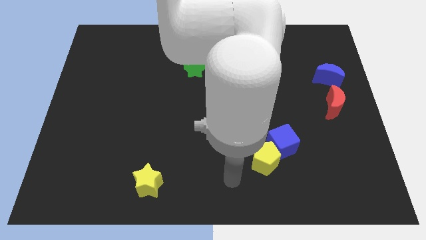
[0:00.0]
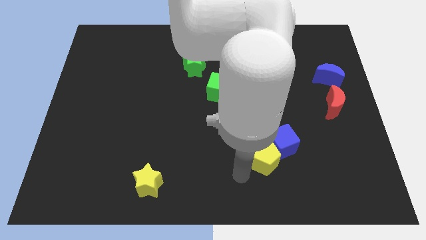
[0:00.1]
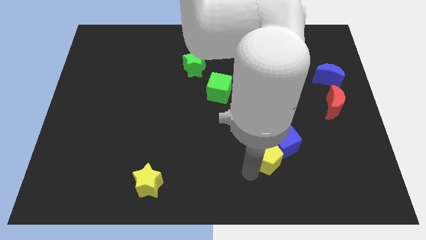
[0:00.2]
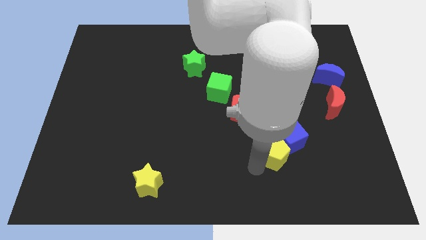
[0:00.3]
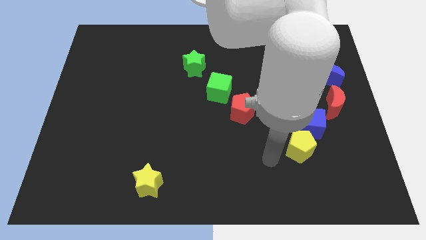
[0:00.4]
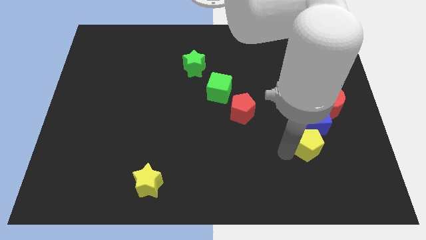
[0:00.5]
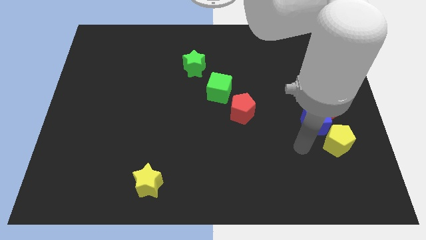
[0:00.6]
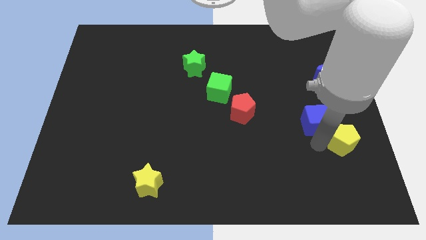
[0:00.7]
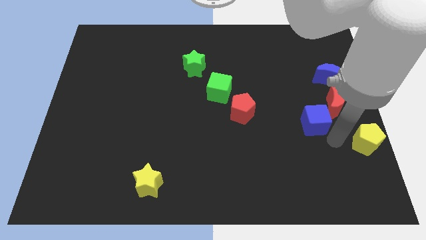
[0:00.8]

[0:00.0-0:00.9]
pull the blue cube apart from the yellow pentagon

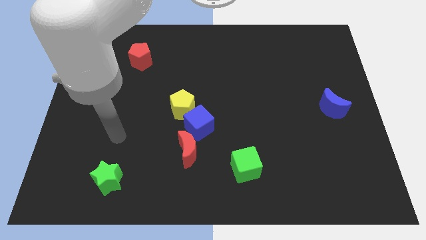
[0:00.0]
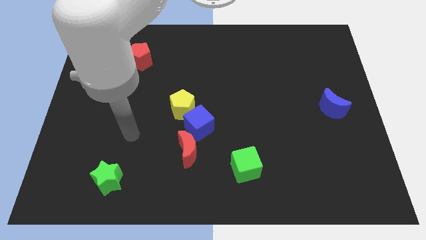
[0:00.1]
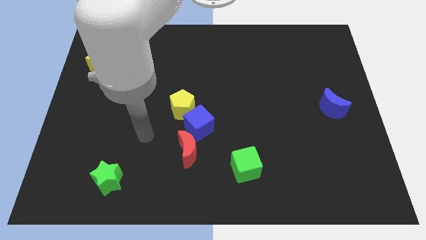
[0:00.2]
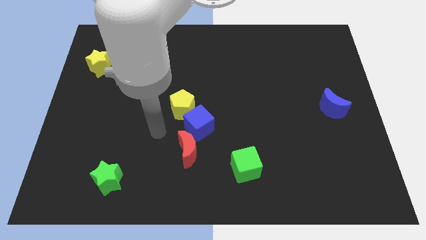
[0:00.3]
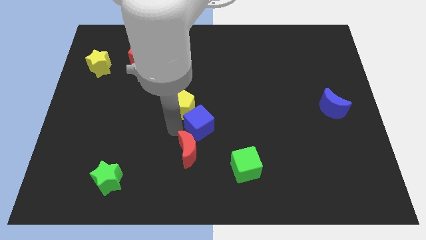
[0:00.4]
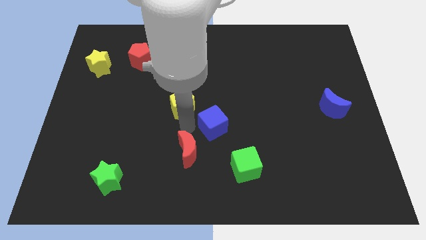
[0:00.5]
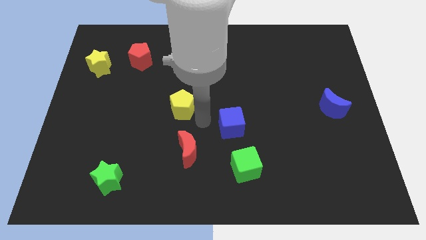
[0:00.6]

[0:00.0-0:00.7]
separate the yellow pentagon from the blue cube

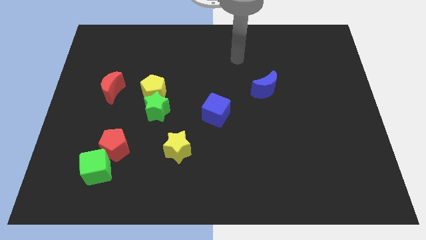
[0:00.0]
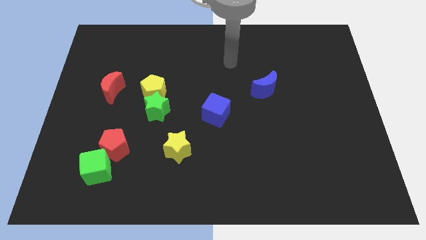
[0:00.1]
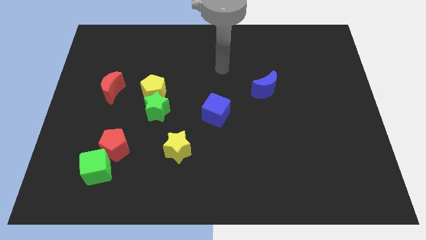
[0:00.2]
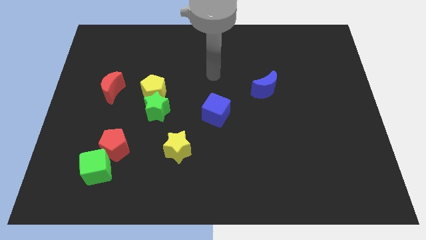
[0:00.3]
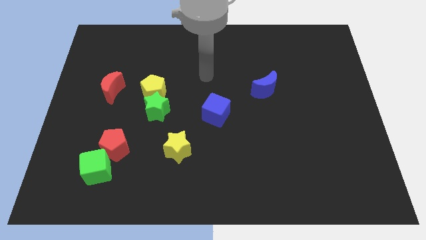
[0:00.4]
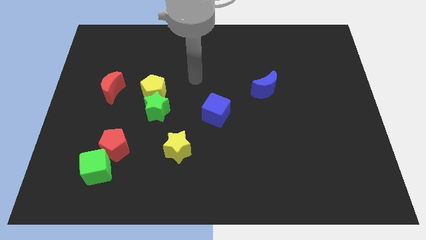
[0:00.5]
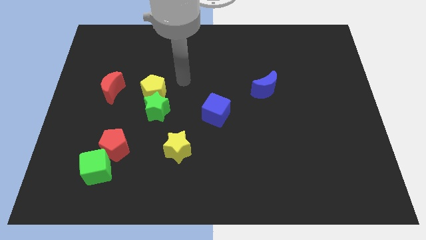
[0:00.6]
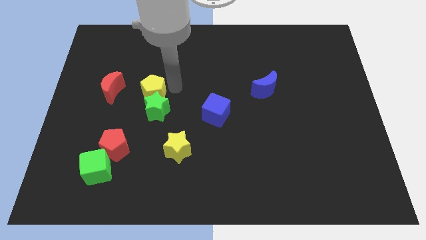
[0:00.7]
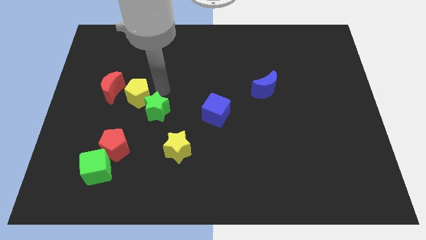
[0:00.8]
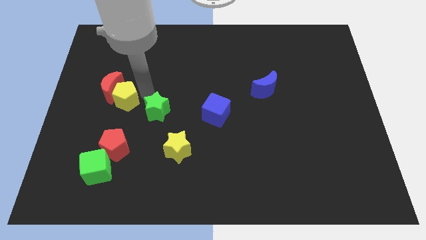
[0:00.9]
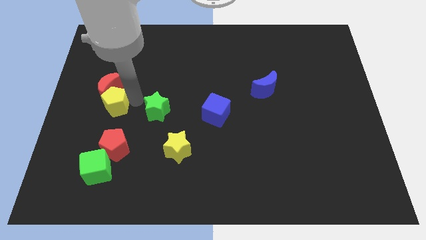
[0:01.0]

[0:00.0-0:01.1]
move the green star away from the yellow pentagon

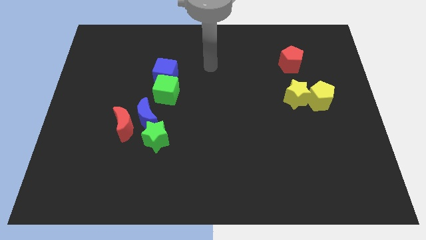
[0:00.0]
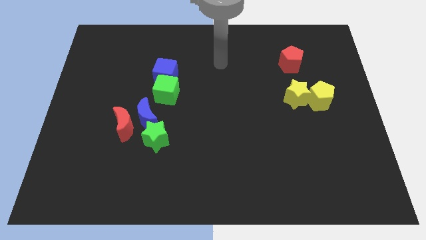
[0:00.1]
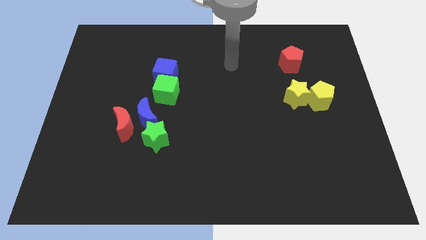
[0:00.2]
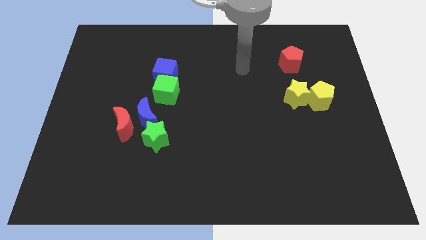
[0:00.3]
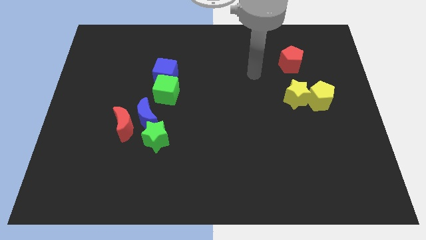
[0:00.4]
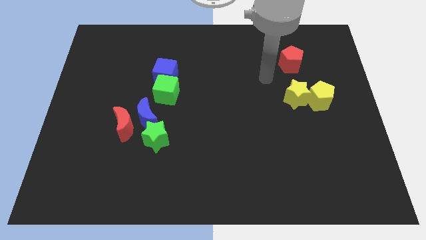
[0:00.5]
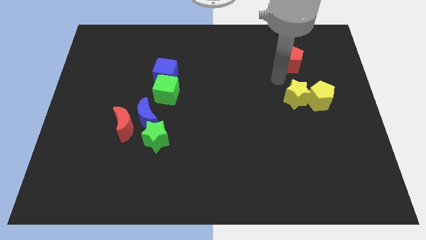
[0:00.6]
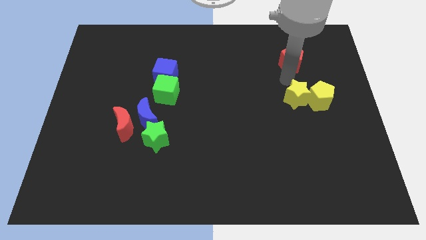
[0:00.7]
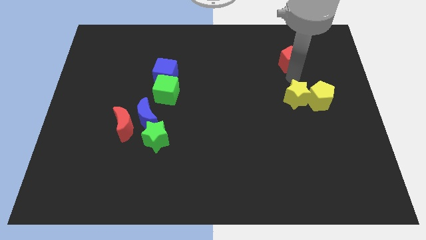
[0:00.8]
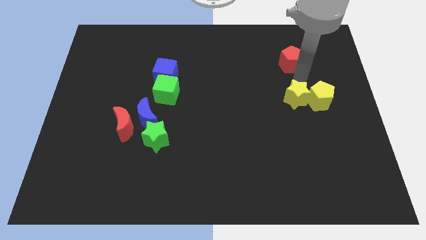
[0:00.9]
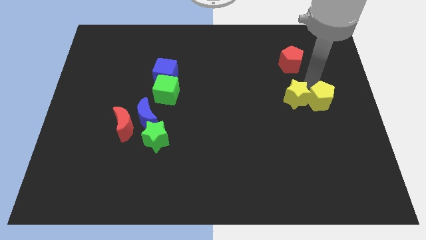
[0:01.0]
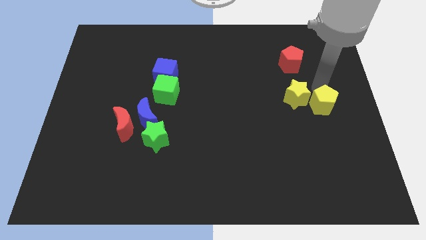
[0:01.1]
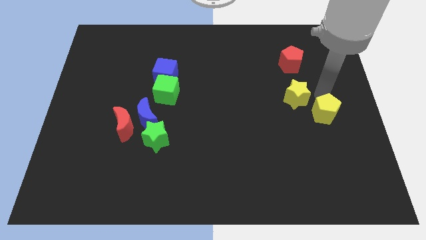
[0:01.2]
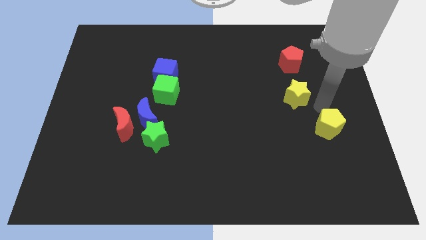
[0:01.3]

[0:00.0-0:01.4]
pull the yellow star apart from the yellow pentagon

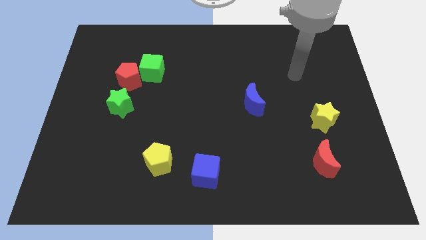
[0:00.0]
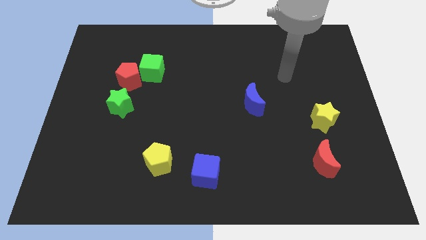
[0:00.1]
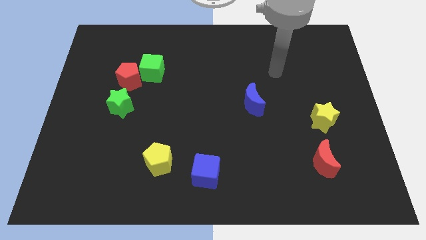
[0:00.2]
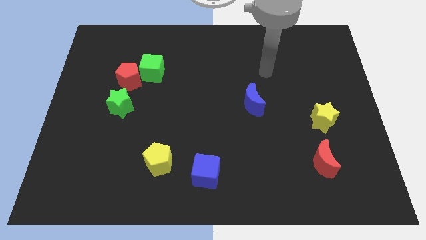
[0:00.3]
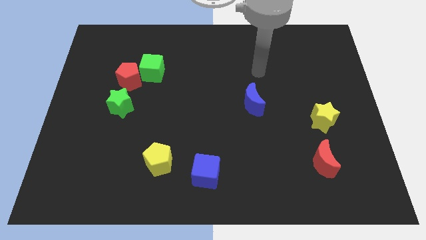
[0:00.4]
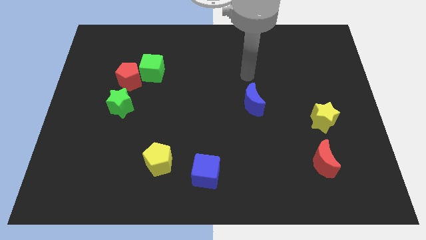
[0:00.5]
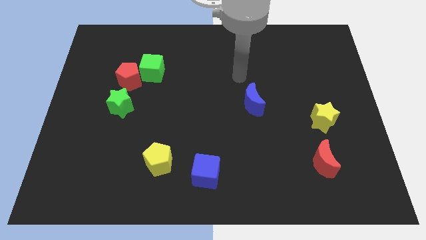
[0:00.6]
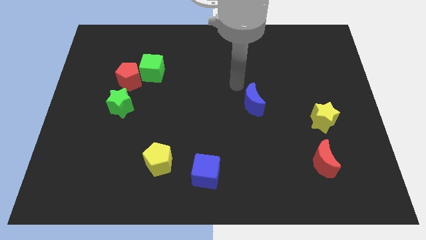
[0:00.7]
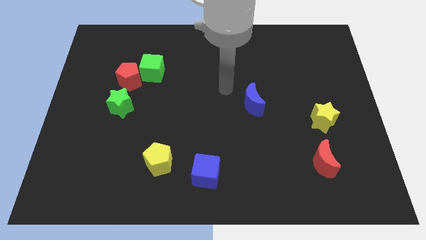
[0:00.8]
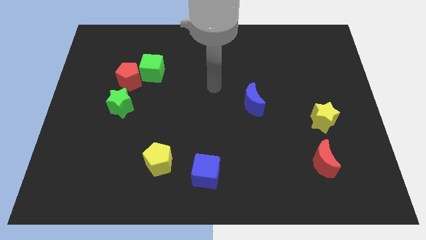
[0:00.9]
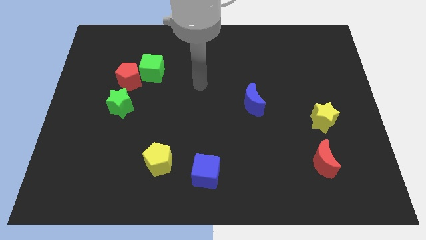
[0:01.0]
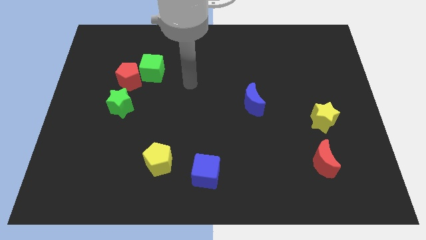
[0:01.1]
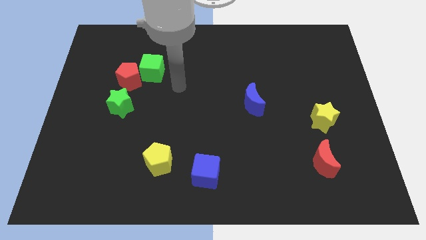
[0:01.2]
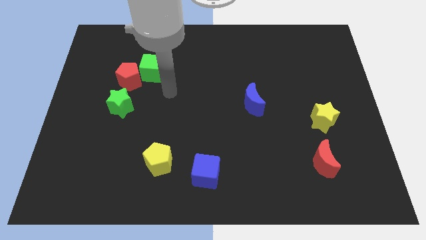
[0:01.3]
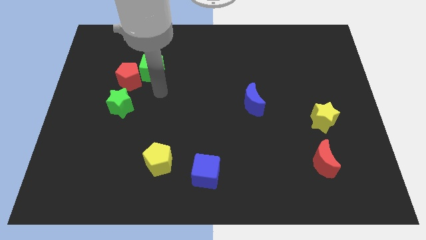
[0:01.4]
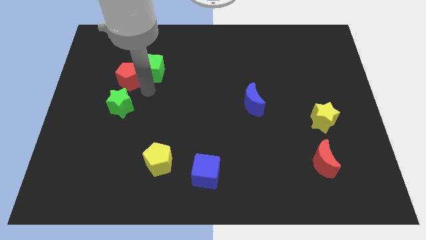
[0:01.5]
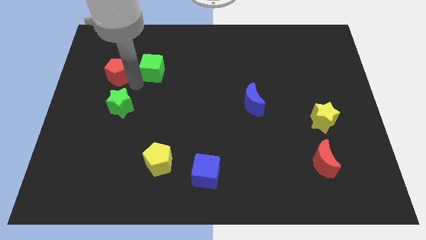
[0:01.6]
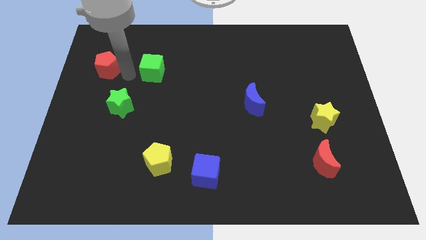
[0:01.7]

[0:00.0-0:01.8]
pull the green cube apart from the red pentagon

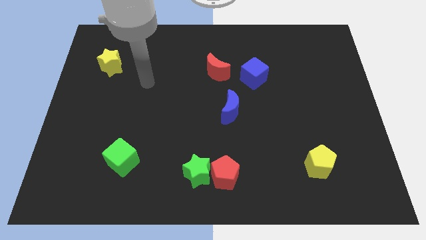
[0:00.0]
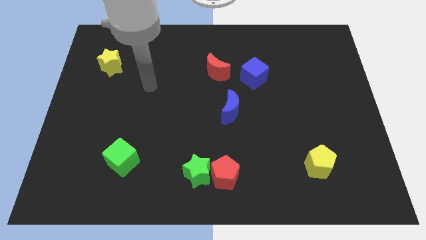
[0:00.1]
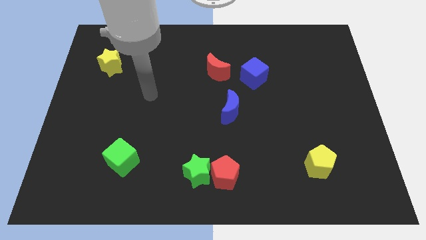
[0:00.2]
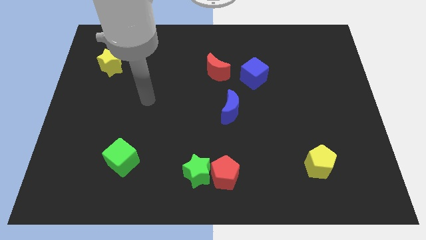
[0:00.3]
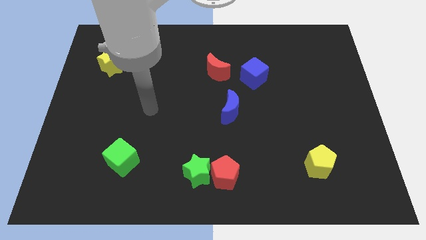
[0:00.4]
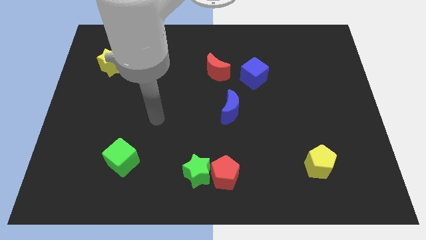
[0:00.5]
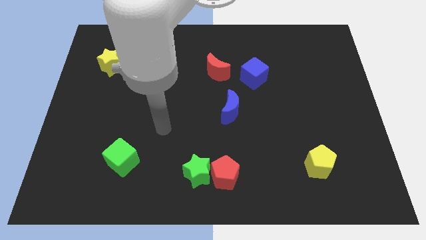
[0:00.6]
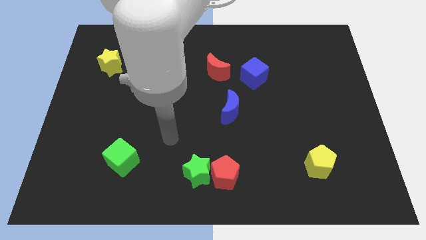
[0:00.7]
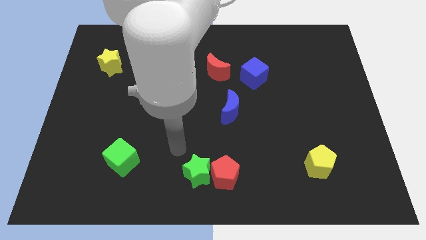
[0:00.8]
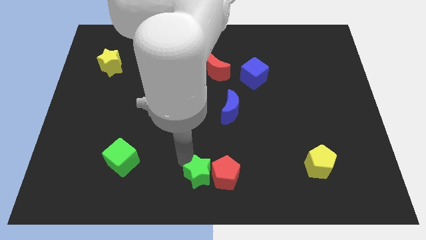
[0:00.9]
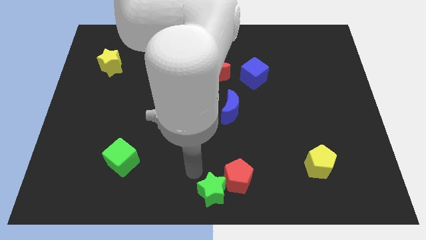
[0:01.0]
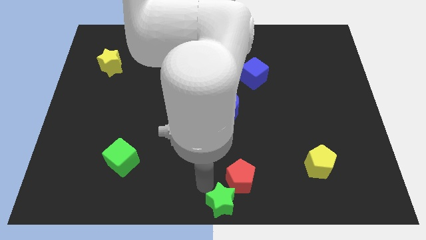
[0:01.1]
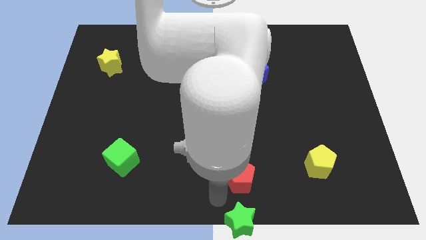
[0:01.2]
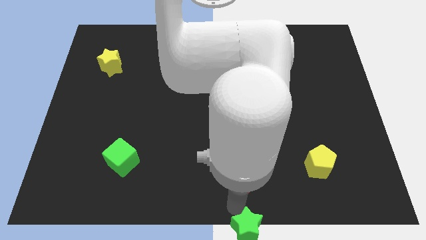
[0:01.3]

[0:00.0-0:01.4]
pull the red pentagon apart from the green star

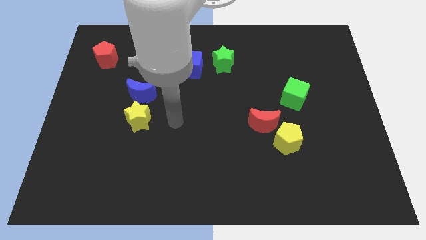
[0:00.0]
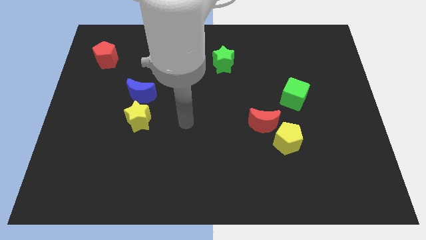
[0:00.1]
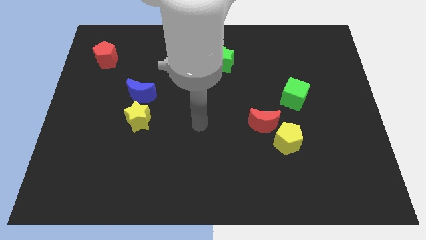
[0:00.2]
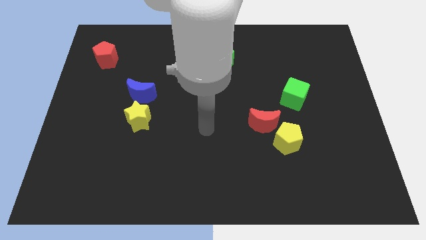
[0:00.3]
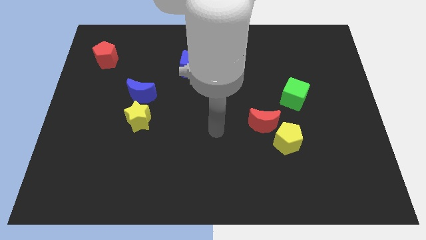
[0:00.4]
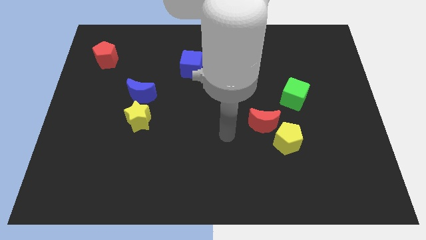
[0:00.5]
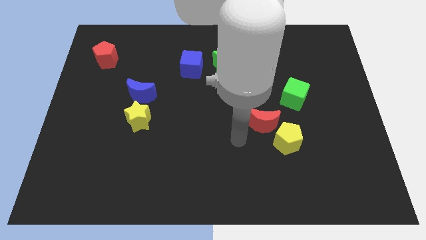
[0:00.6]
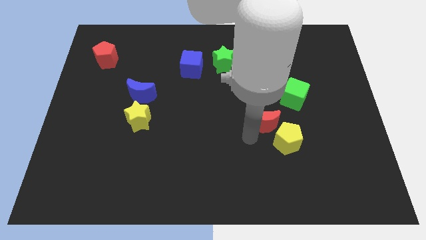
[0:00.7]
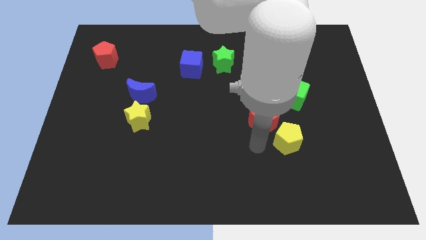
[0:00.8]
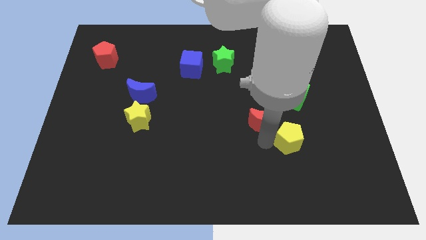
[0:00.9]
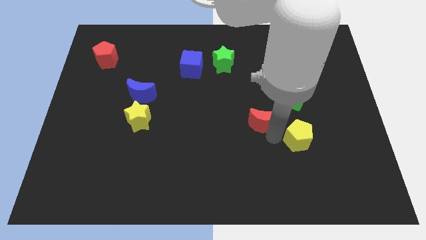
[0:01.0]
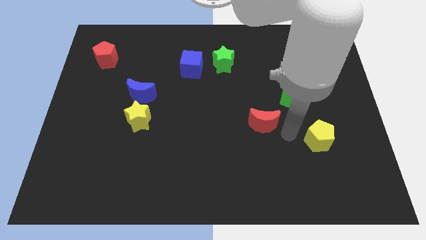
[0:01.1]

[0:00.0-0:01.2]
separate the red moon from the yellow pentagon

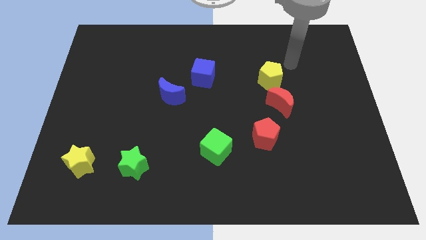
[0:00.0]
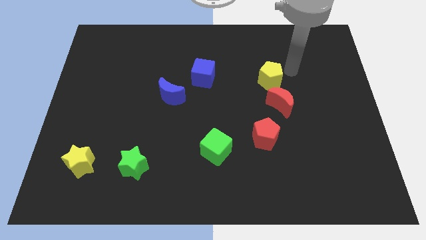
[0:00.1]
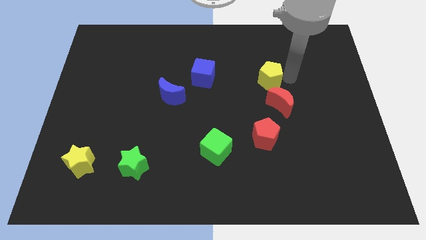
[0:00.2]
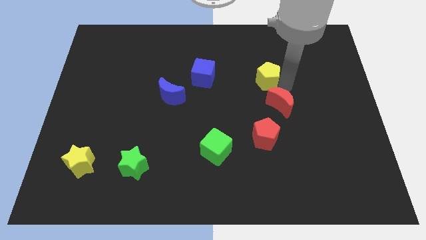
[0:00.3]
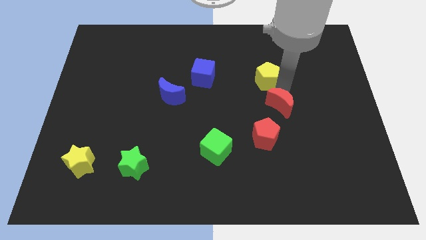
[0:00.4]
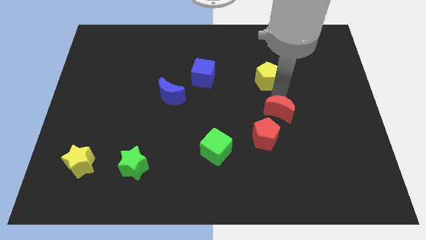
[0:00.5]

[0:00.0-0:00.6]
pull the yellow pentagon apart from the red moon

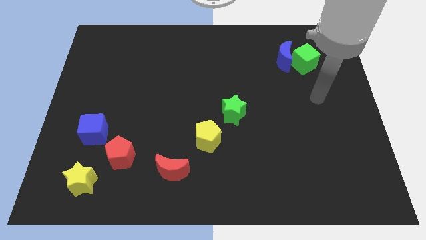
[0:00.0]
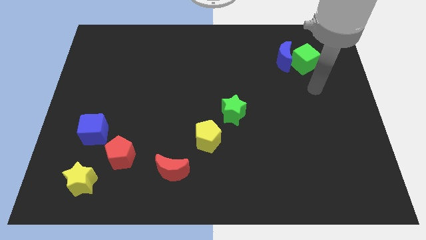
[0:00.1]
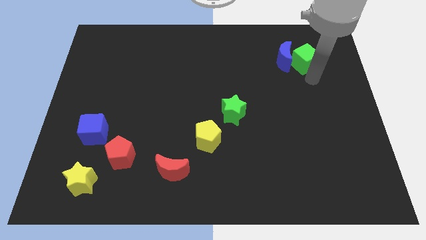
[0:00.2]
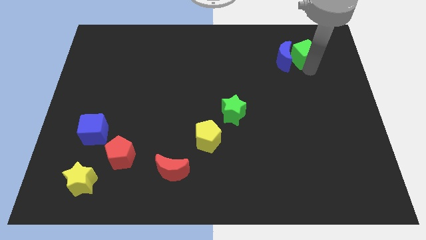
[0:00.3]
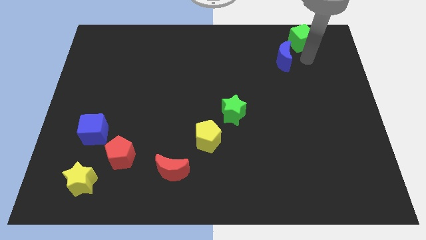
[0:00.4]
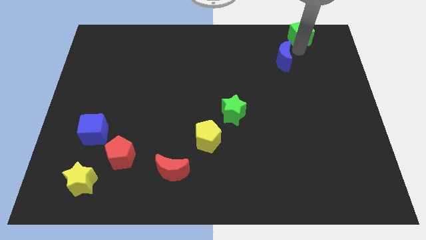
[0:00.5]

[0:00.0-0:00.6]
pull the blue moon apart from the green cube
